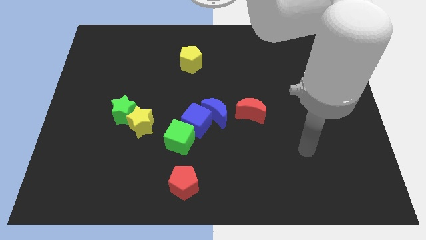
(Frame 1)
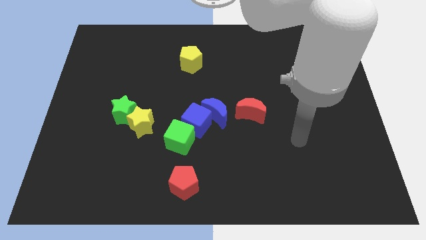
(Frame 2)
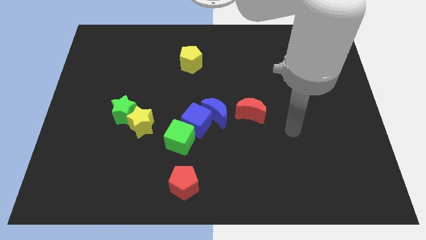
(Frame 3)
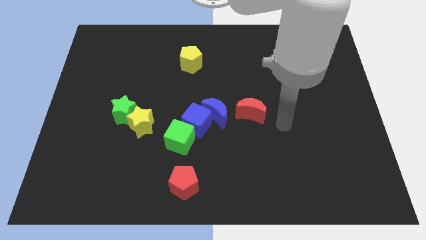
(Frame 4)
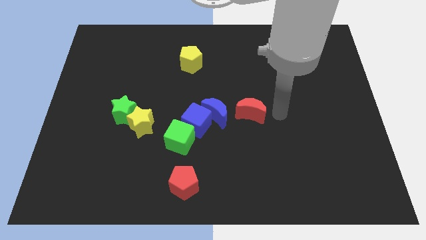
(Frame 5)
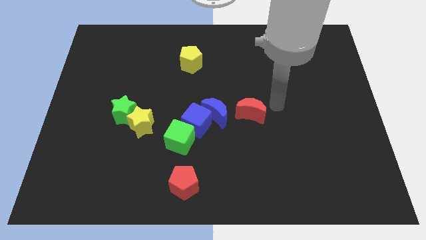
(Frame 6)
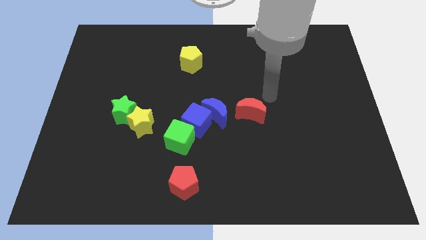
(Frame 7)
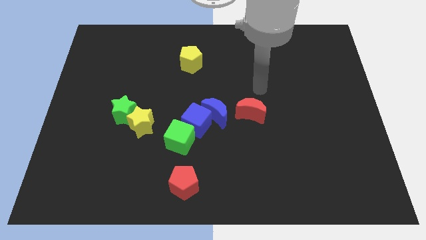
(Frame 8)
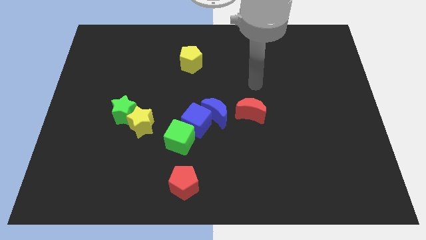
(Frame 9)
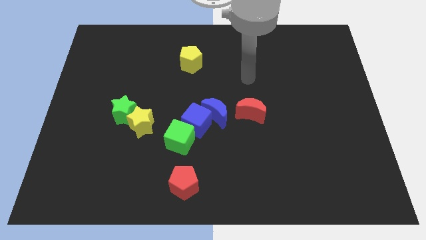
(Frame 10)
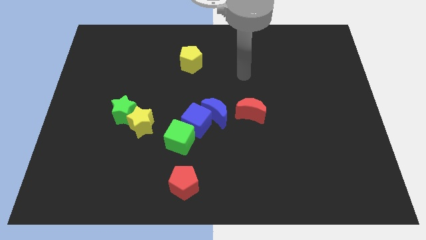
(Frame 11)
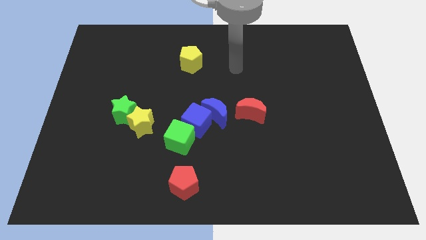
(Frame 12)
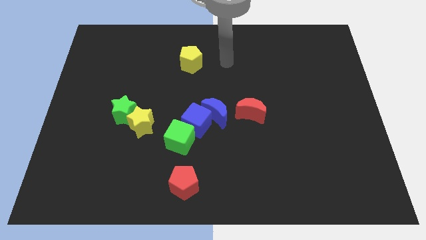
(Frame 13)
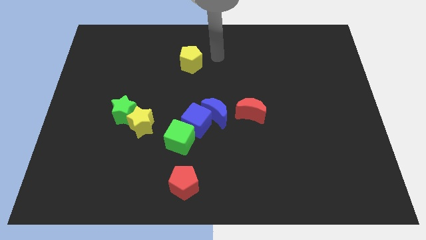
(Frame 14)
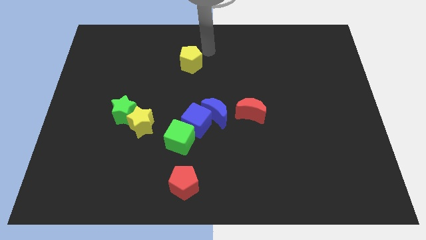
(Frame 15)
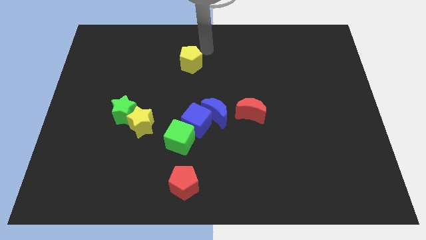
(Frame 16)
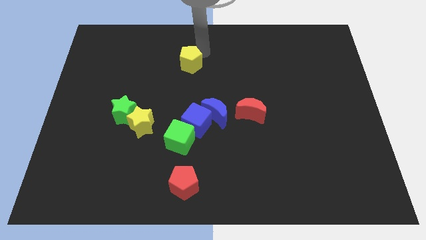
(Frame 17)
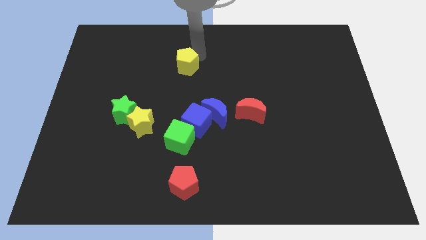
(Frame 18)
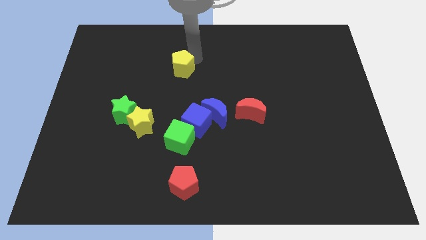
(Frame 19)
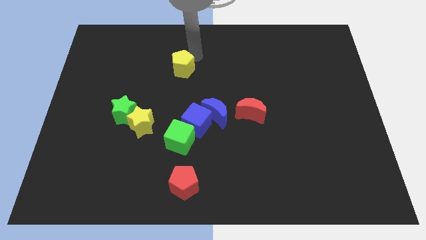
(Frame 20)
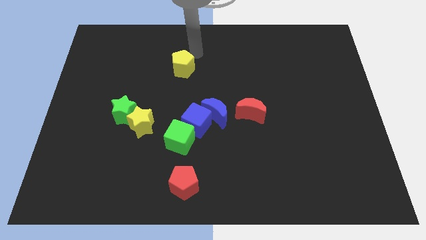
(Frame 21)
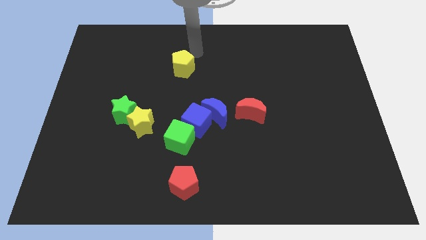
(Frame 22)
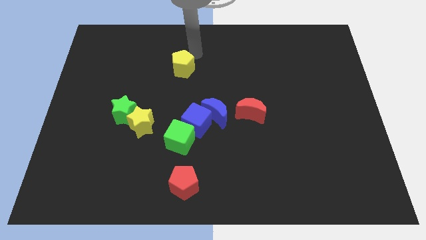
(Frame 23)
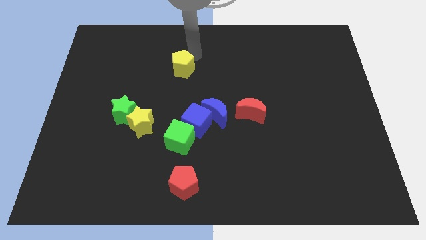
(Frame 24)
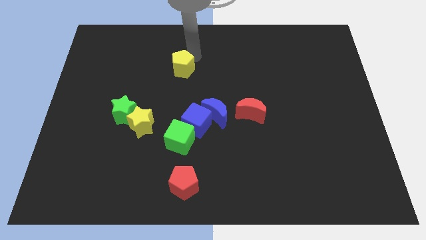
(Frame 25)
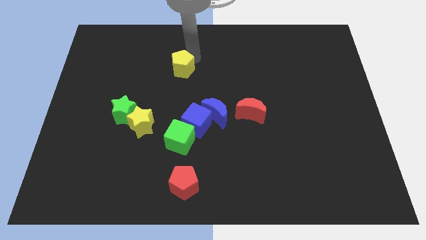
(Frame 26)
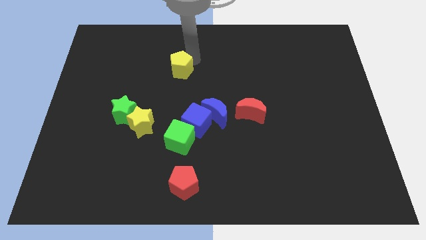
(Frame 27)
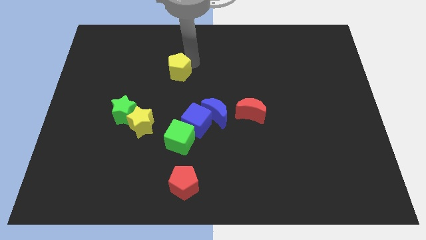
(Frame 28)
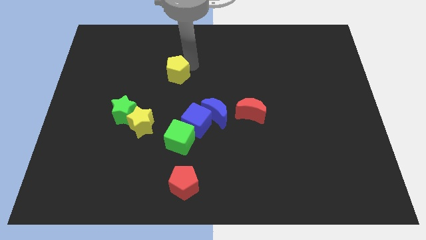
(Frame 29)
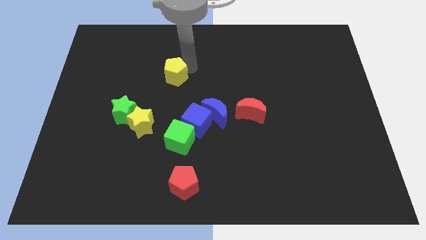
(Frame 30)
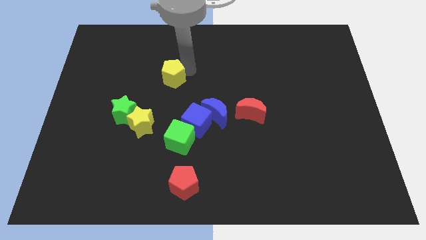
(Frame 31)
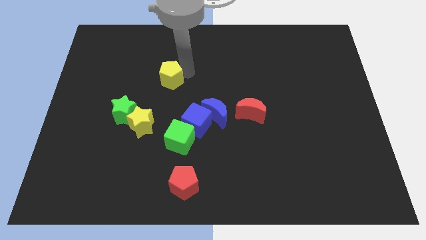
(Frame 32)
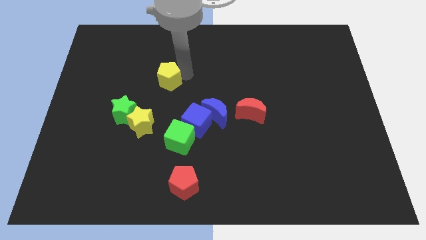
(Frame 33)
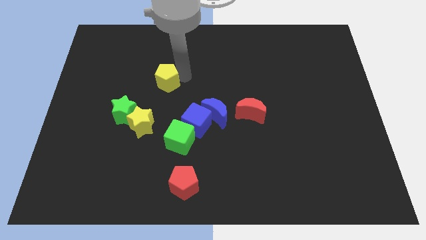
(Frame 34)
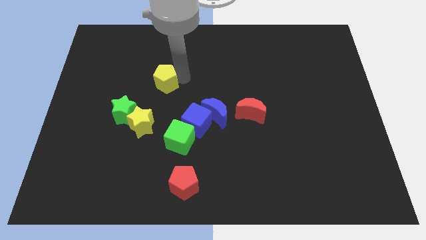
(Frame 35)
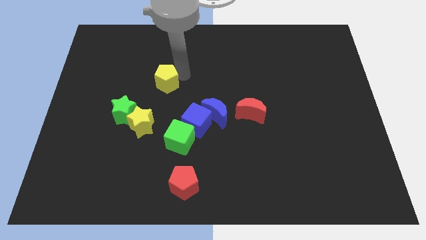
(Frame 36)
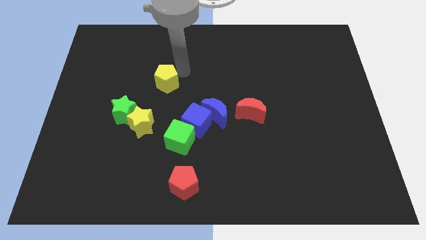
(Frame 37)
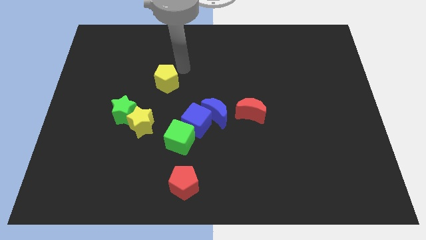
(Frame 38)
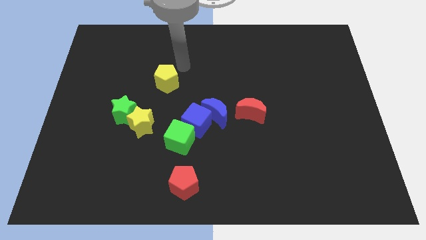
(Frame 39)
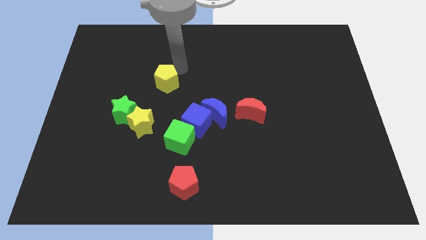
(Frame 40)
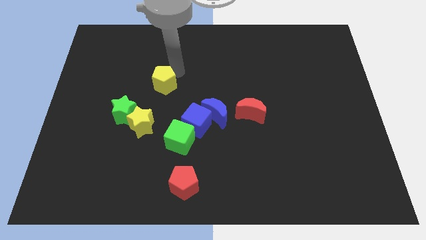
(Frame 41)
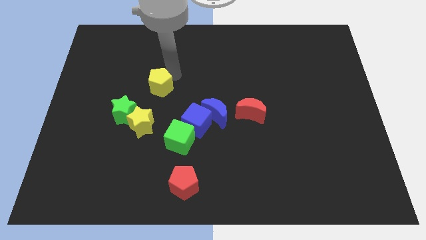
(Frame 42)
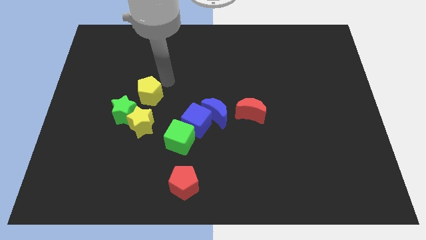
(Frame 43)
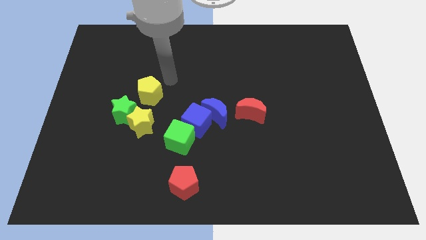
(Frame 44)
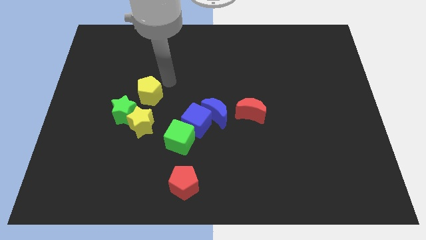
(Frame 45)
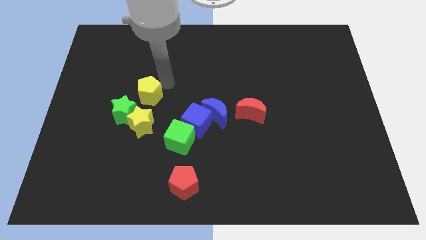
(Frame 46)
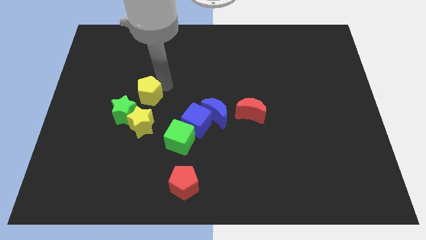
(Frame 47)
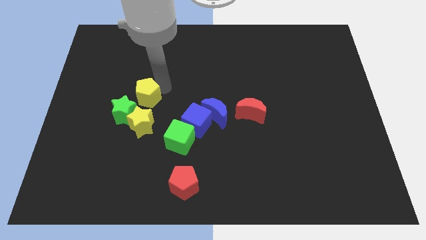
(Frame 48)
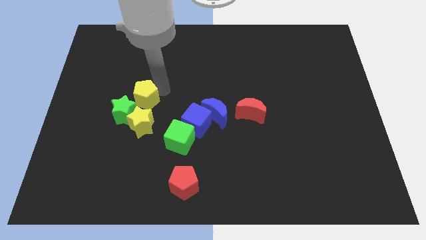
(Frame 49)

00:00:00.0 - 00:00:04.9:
put the yellow pentagon next to the green star

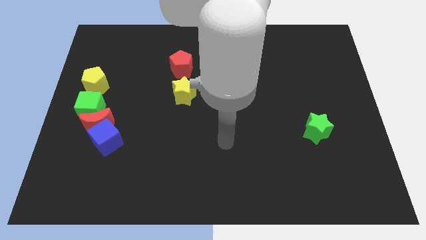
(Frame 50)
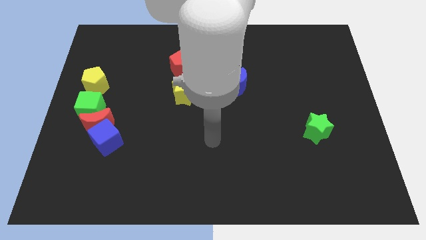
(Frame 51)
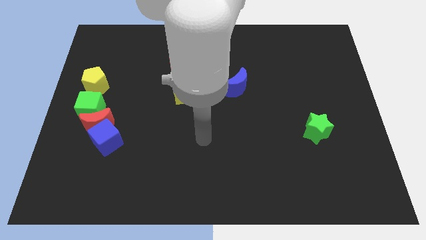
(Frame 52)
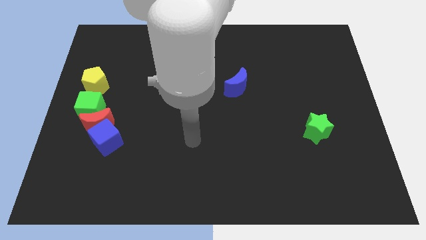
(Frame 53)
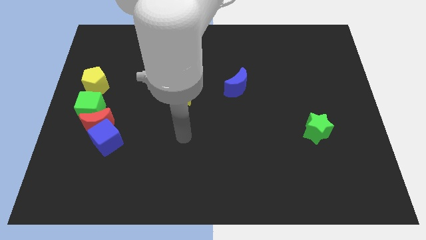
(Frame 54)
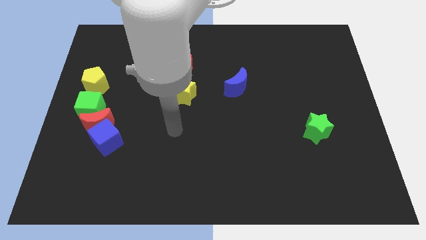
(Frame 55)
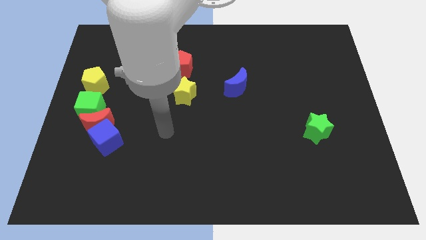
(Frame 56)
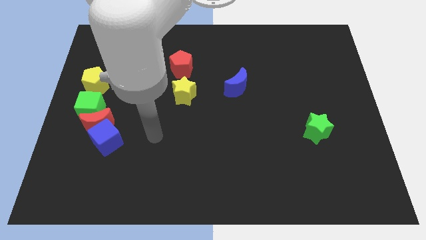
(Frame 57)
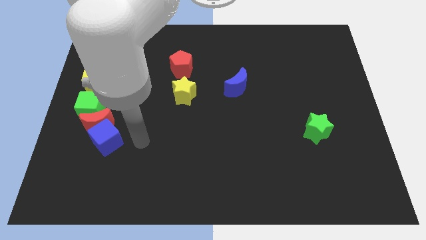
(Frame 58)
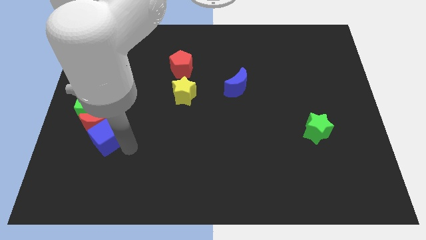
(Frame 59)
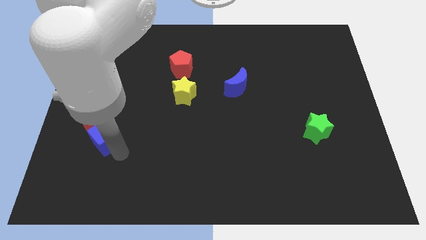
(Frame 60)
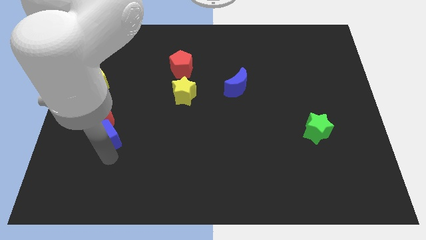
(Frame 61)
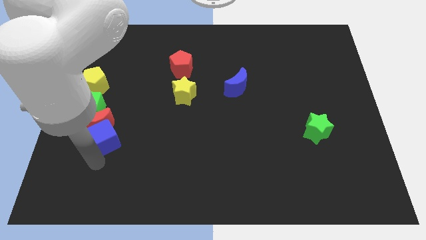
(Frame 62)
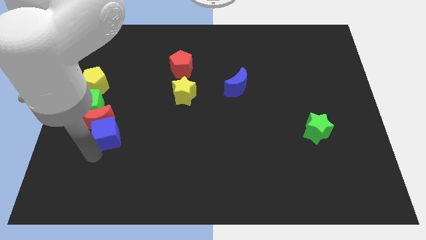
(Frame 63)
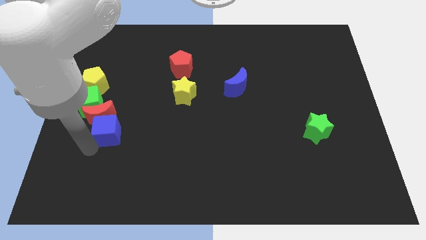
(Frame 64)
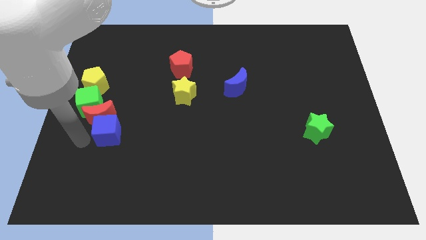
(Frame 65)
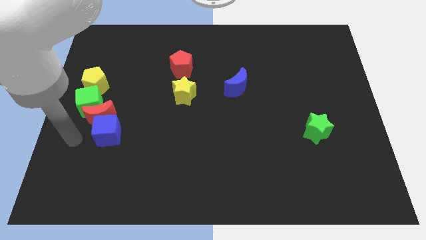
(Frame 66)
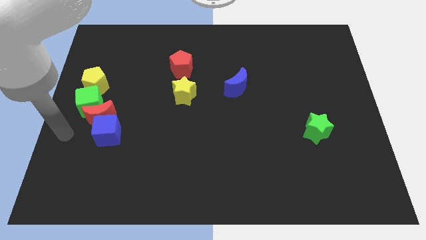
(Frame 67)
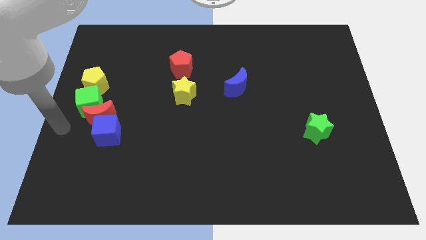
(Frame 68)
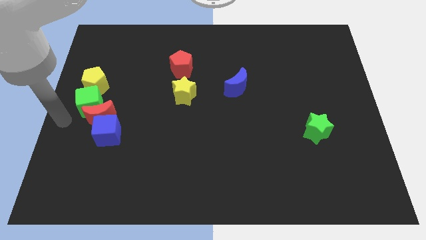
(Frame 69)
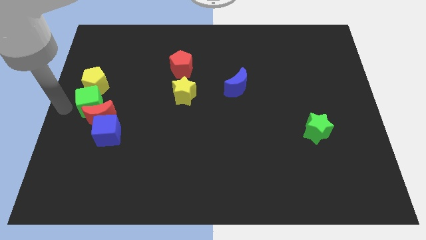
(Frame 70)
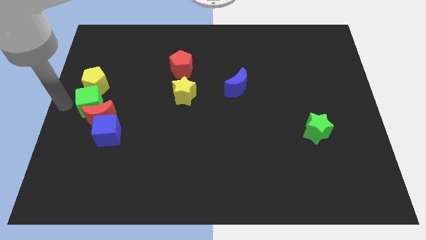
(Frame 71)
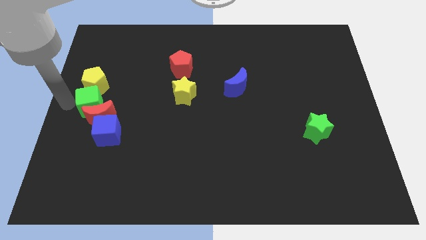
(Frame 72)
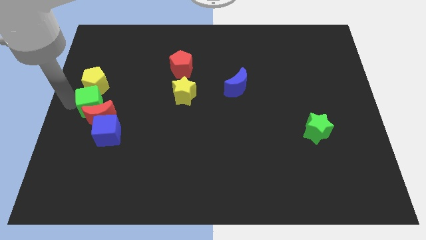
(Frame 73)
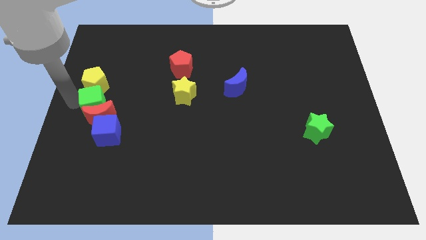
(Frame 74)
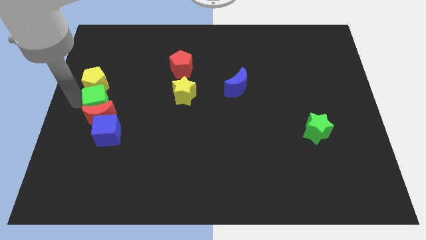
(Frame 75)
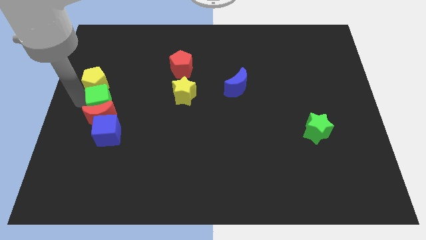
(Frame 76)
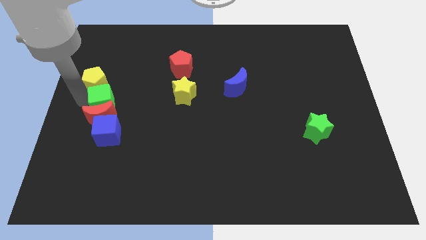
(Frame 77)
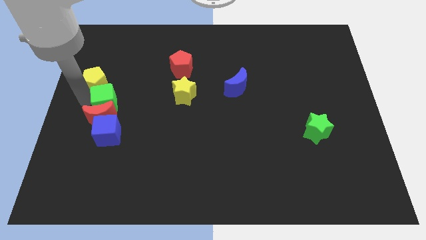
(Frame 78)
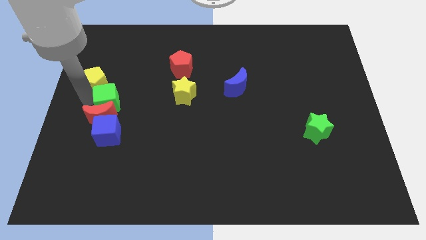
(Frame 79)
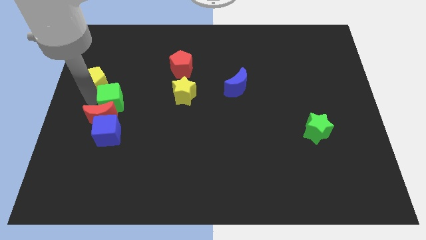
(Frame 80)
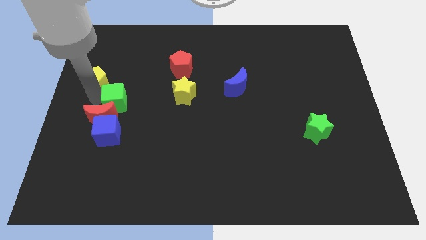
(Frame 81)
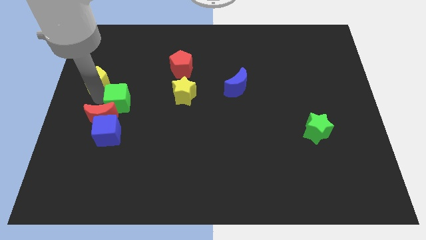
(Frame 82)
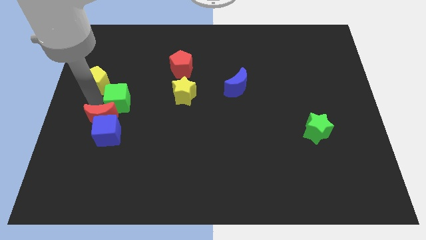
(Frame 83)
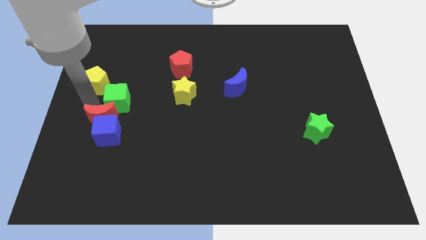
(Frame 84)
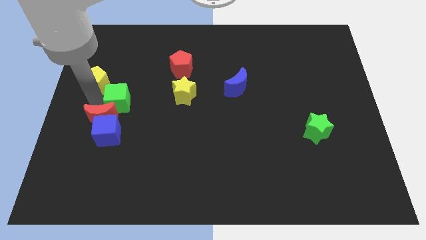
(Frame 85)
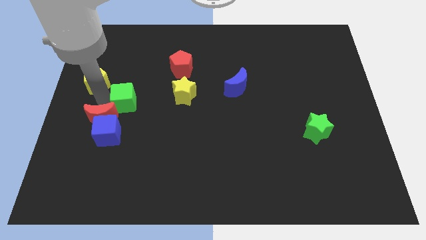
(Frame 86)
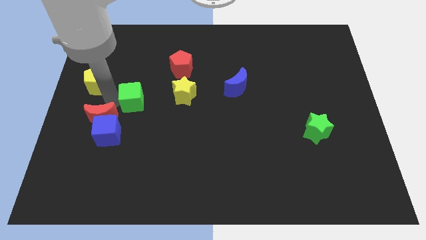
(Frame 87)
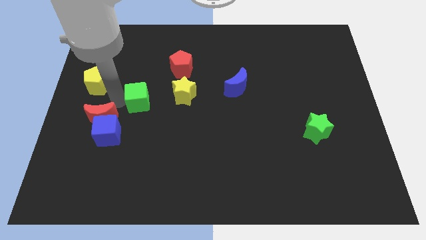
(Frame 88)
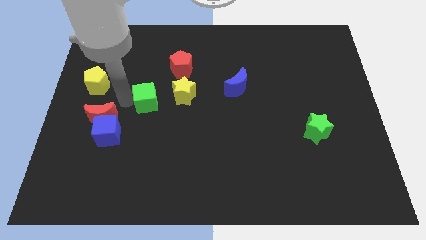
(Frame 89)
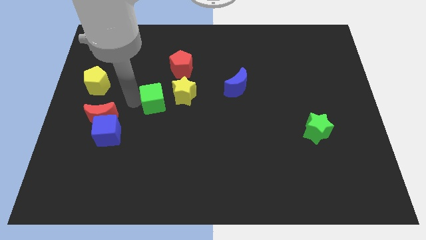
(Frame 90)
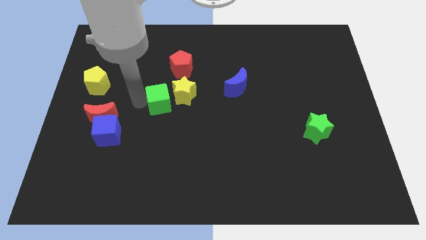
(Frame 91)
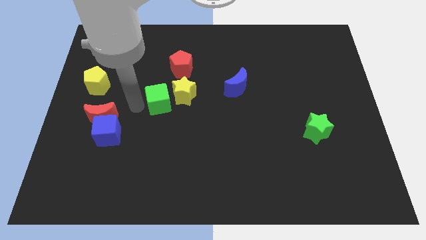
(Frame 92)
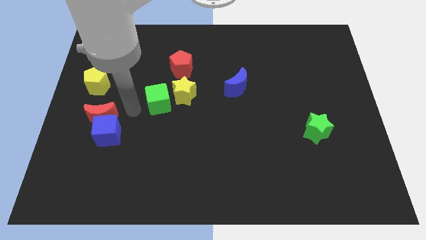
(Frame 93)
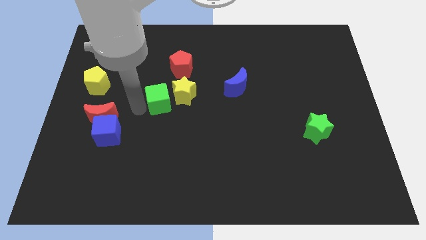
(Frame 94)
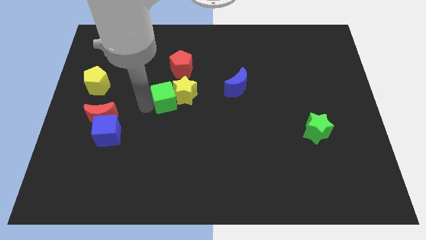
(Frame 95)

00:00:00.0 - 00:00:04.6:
put the green cube close to the yellow star
